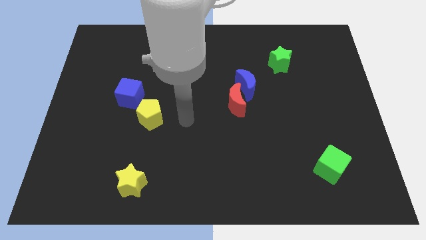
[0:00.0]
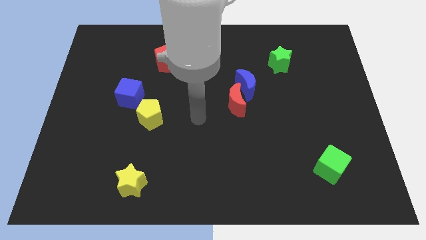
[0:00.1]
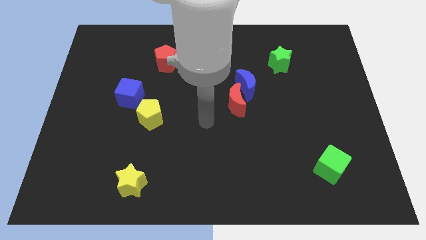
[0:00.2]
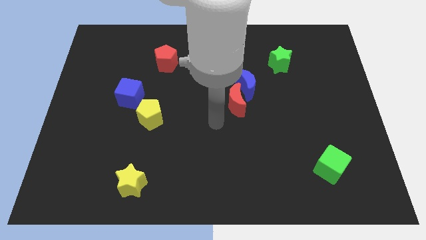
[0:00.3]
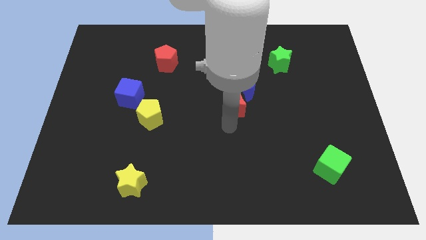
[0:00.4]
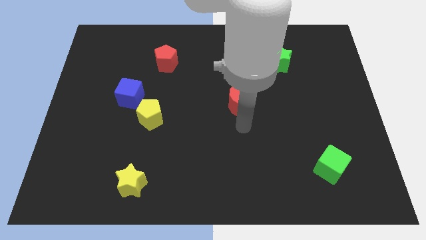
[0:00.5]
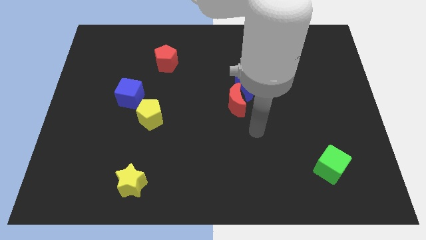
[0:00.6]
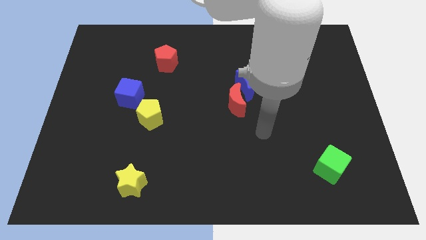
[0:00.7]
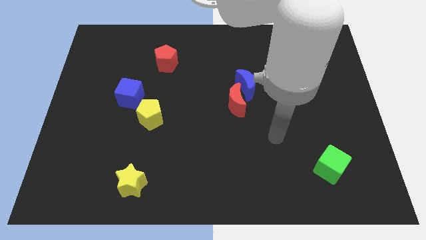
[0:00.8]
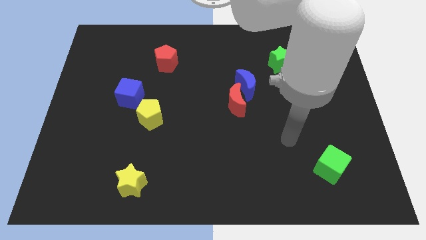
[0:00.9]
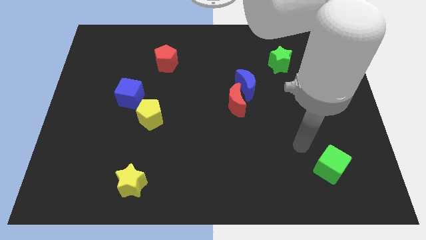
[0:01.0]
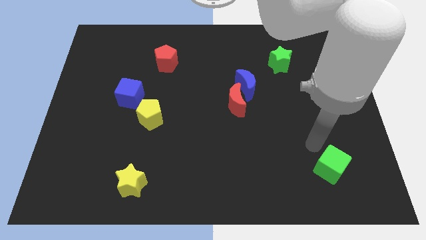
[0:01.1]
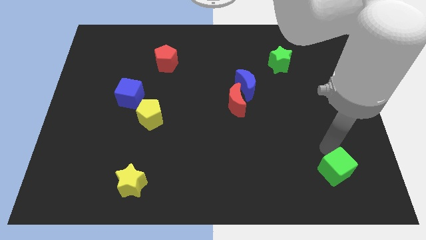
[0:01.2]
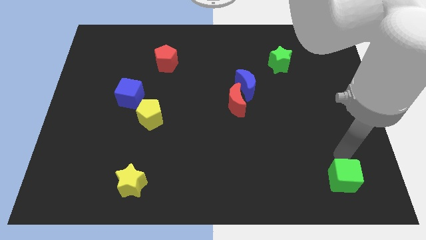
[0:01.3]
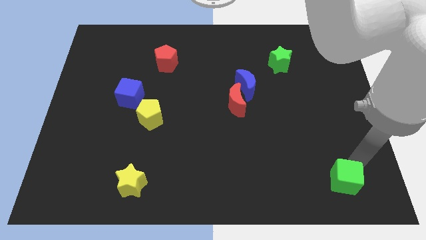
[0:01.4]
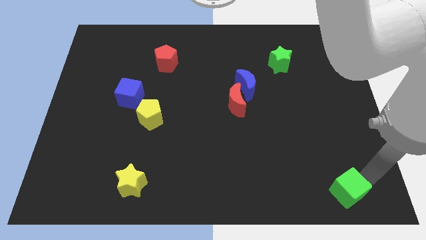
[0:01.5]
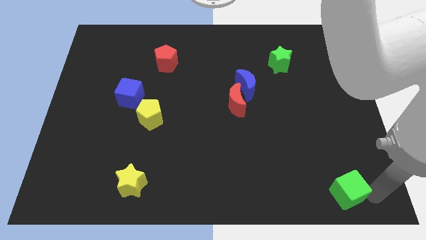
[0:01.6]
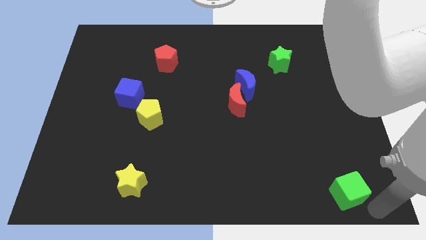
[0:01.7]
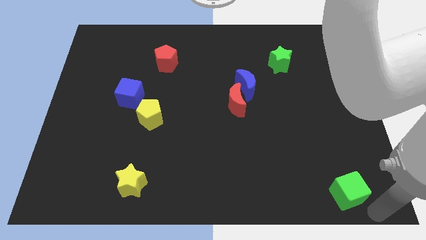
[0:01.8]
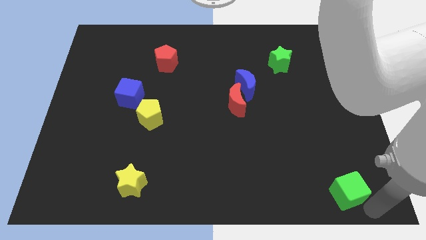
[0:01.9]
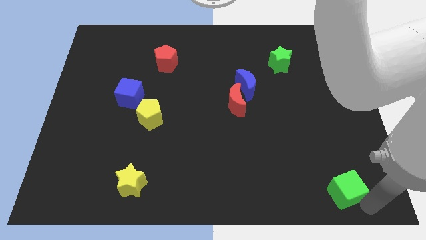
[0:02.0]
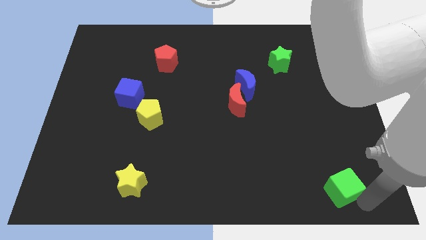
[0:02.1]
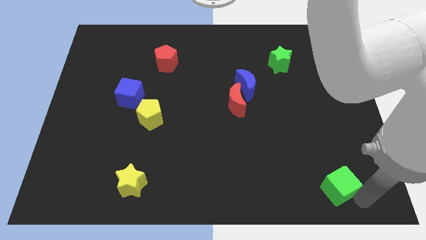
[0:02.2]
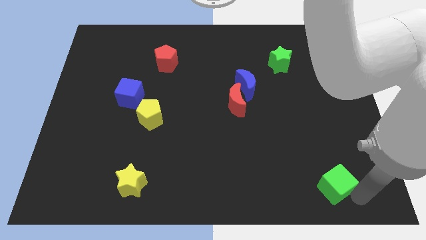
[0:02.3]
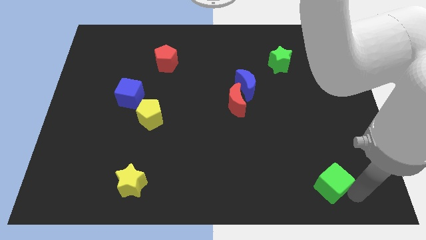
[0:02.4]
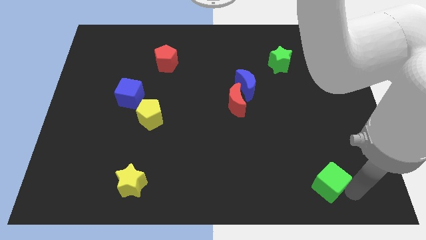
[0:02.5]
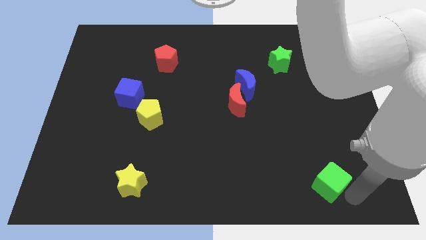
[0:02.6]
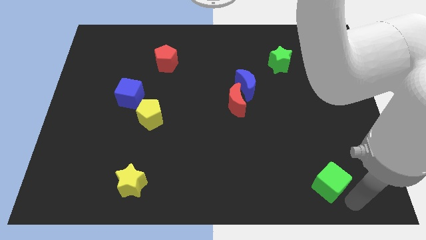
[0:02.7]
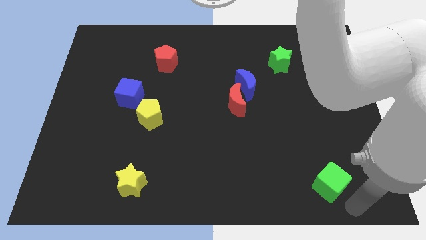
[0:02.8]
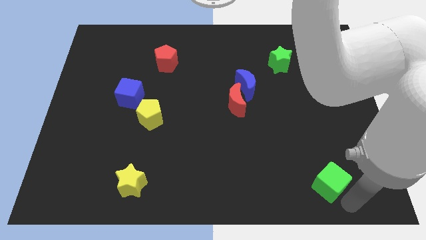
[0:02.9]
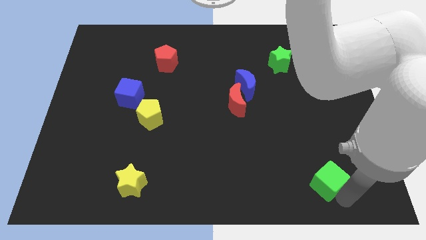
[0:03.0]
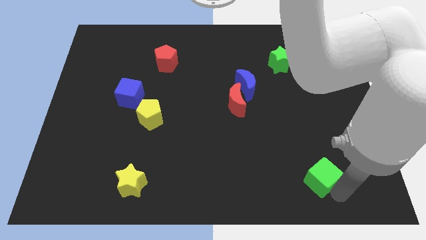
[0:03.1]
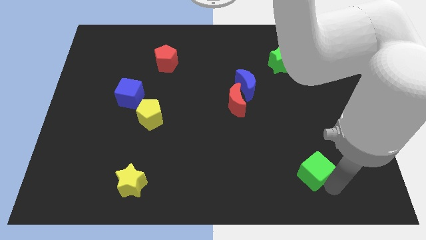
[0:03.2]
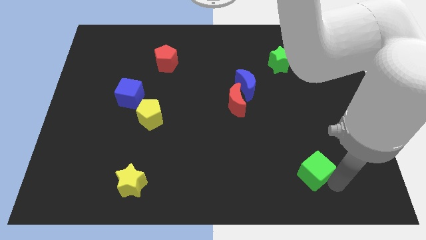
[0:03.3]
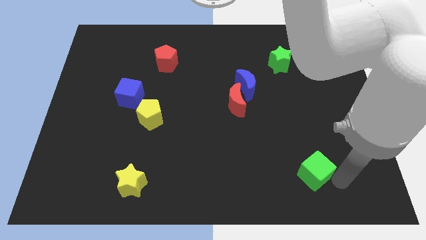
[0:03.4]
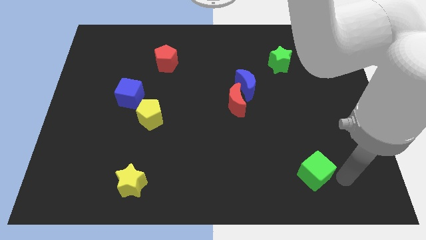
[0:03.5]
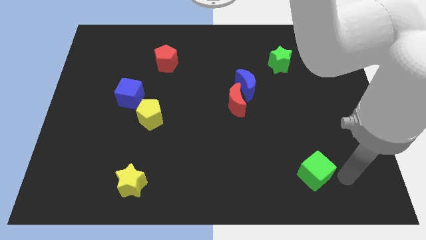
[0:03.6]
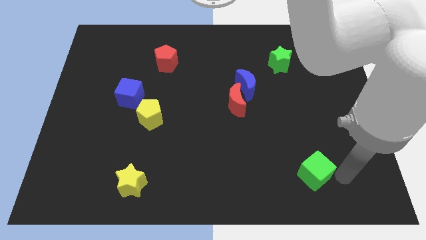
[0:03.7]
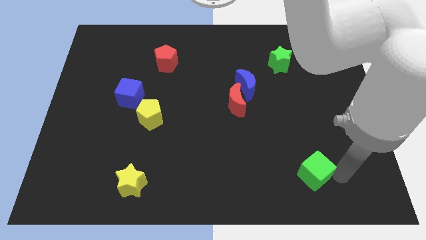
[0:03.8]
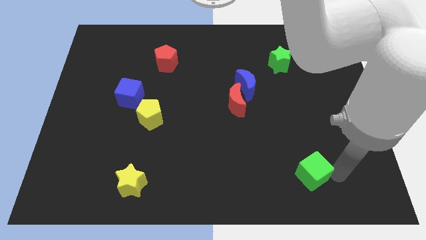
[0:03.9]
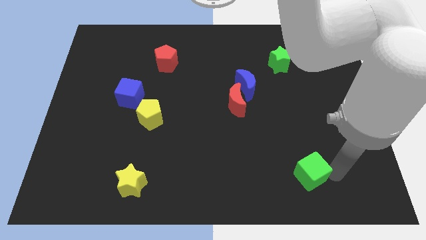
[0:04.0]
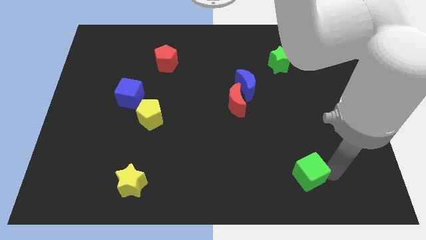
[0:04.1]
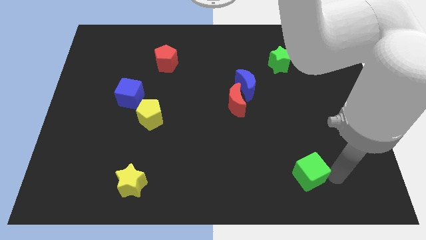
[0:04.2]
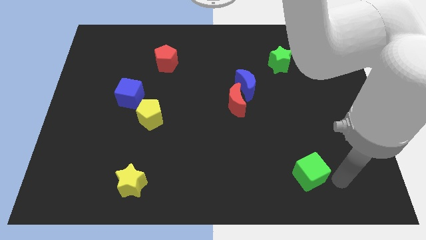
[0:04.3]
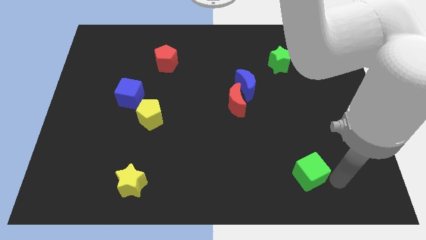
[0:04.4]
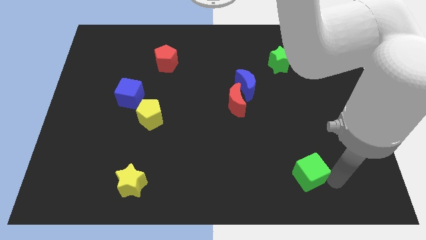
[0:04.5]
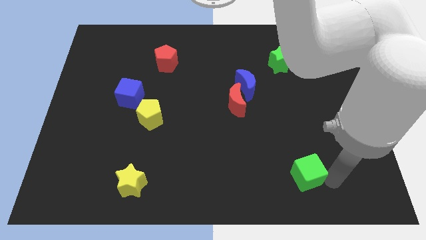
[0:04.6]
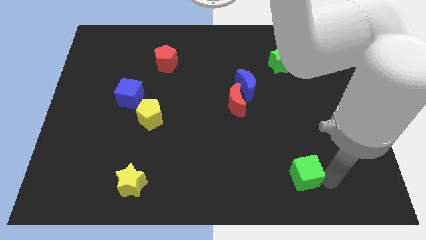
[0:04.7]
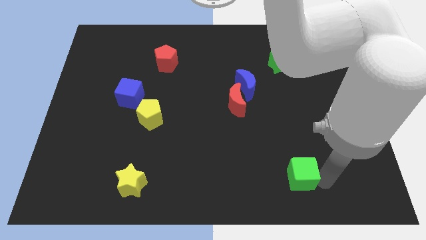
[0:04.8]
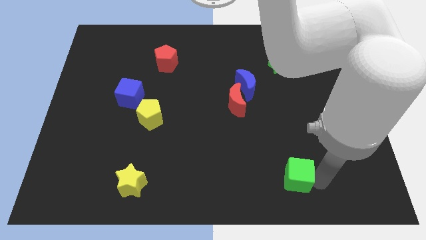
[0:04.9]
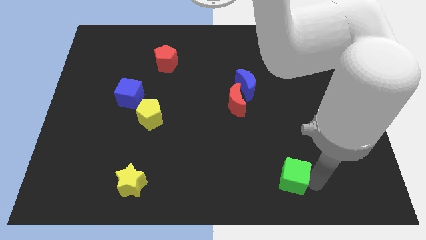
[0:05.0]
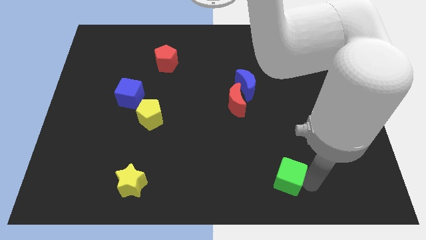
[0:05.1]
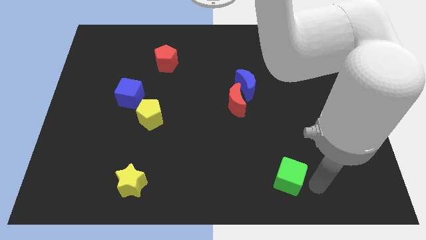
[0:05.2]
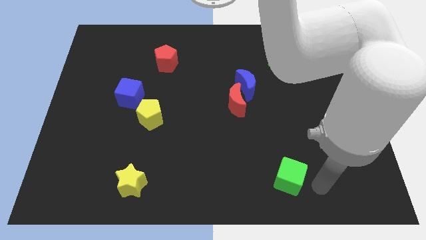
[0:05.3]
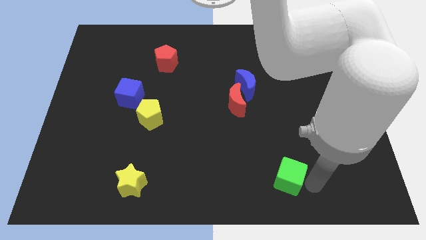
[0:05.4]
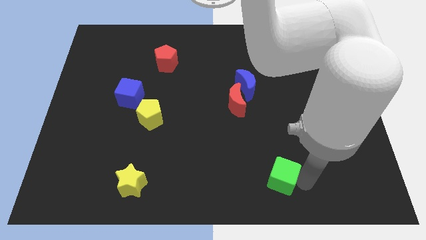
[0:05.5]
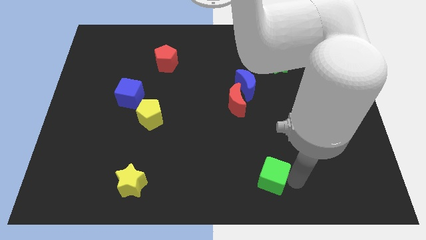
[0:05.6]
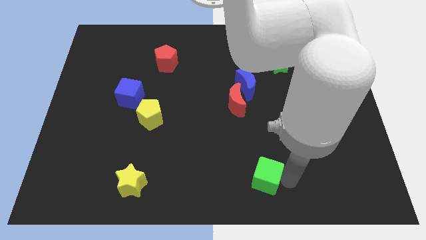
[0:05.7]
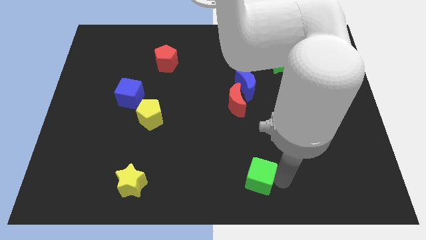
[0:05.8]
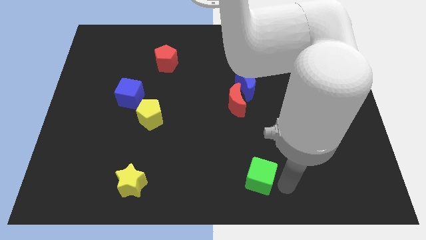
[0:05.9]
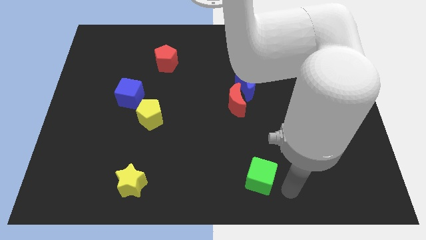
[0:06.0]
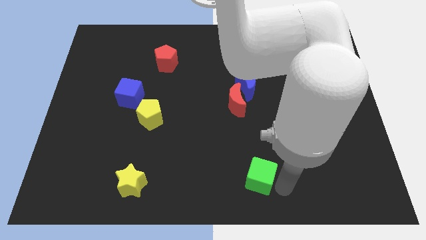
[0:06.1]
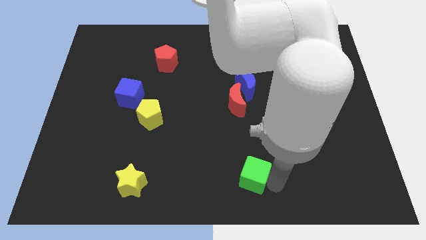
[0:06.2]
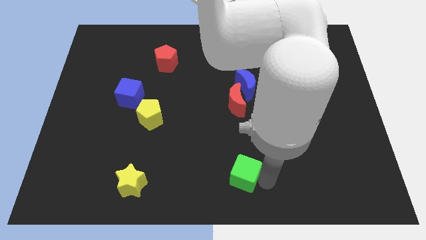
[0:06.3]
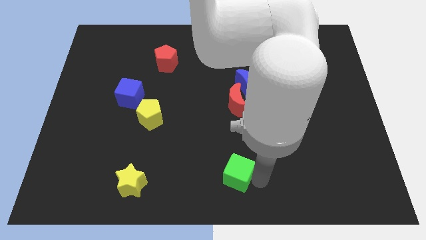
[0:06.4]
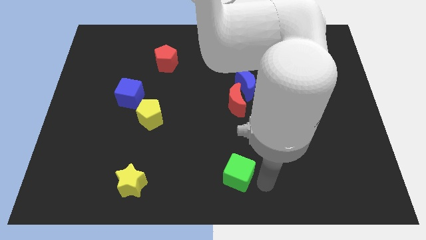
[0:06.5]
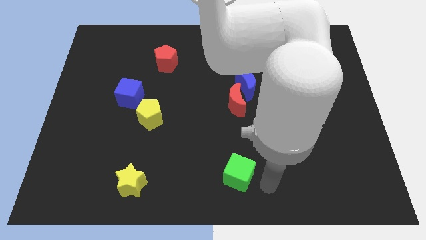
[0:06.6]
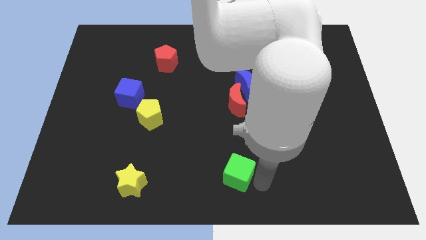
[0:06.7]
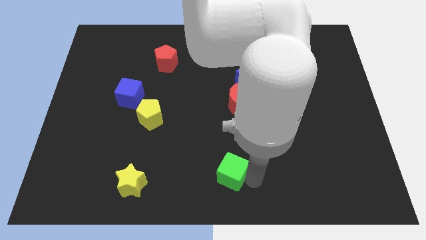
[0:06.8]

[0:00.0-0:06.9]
move the green cube to the left

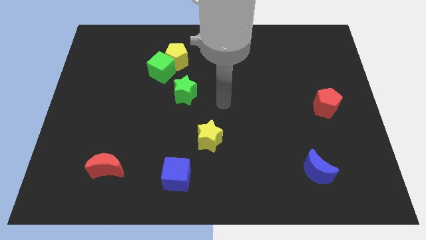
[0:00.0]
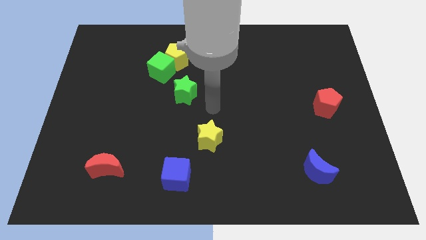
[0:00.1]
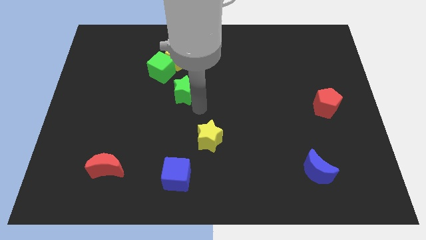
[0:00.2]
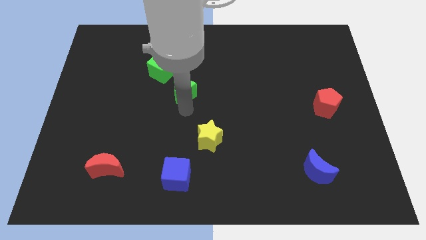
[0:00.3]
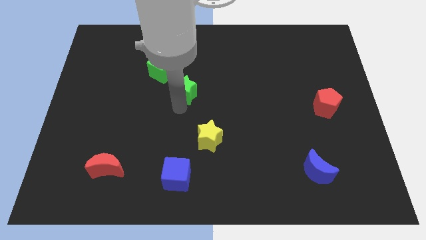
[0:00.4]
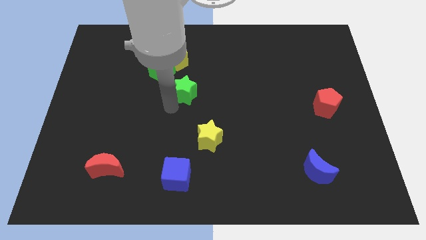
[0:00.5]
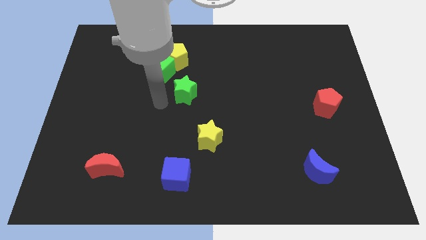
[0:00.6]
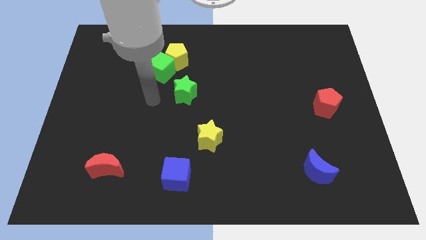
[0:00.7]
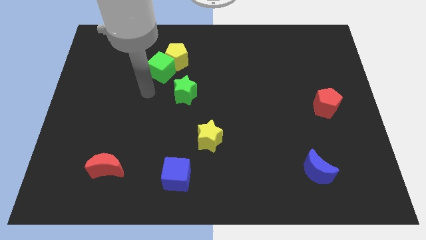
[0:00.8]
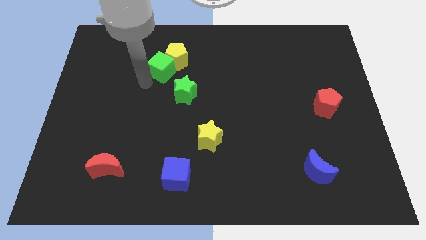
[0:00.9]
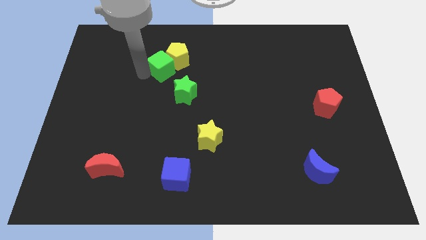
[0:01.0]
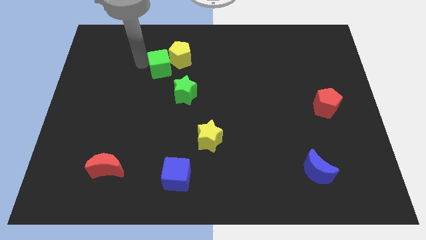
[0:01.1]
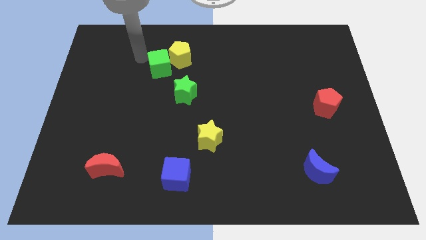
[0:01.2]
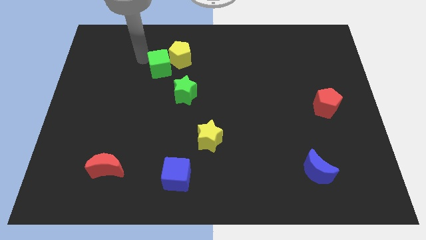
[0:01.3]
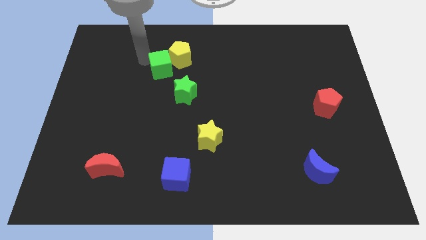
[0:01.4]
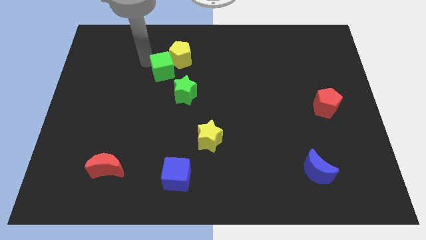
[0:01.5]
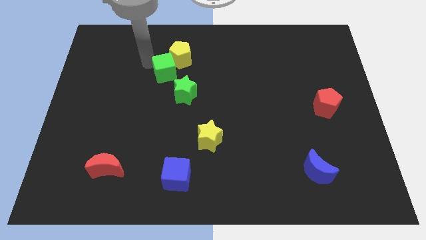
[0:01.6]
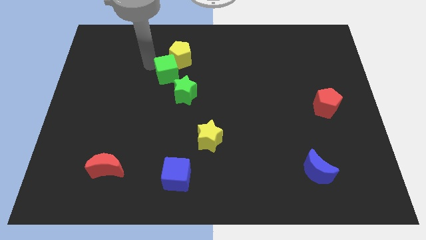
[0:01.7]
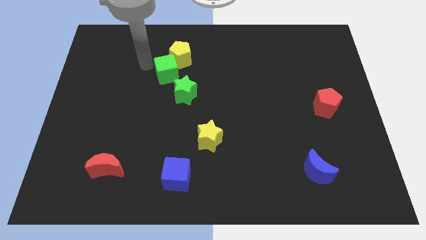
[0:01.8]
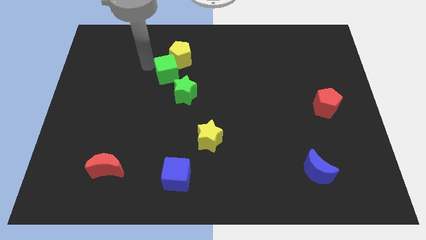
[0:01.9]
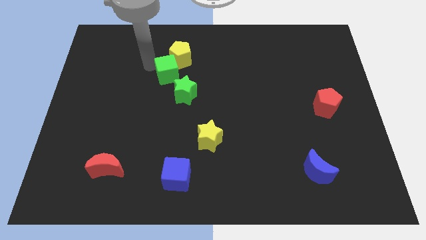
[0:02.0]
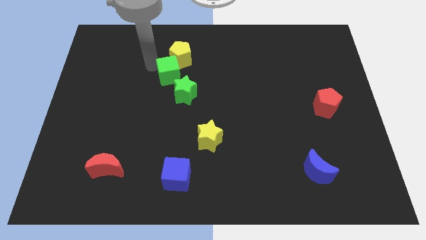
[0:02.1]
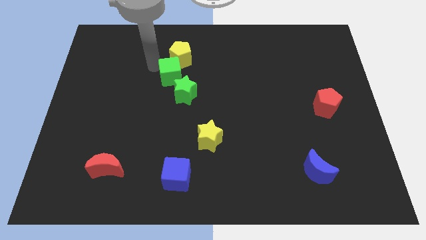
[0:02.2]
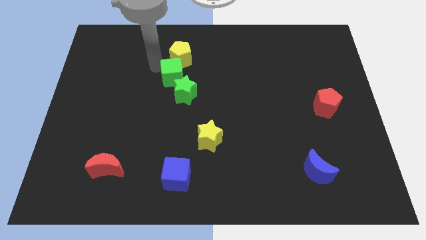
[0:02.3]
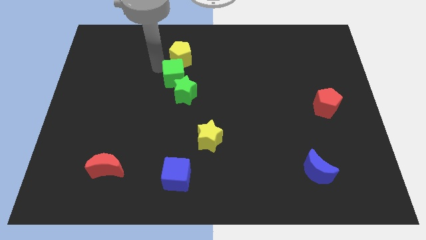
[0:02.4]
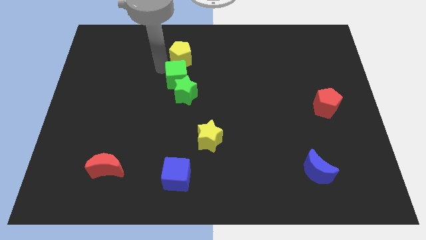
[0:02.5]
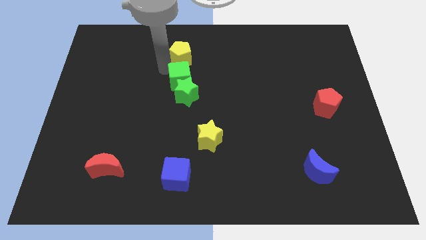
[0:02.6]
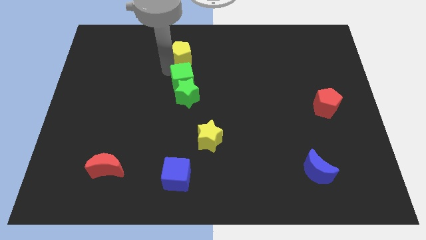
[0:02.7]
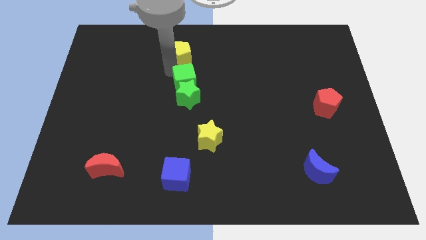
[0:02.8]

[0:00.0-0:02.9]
move the green cube a little bit down and to the right
